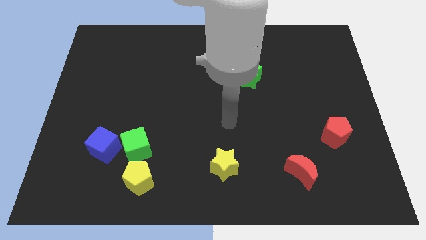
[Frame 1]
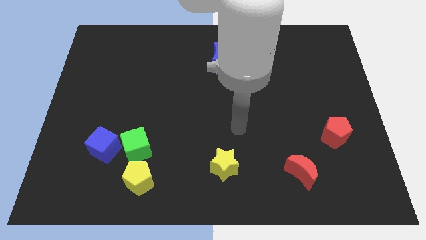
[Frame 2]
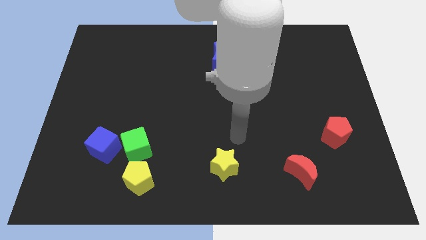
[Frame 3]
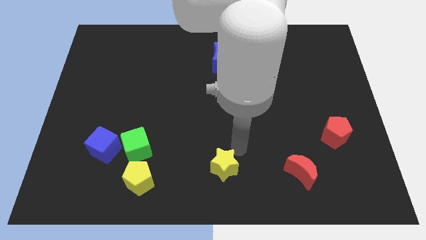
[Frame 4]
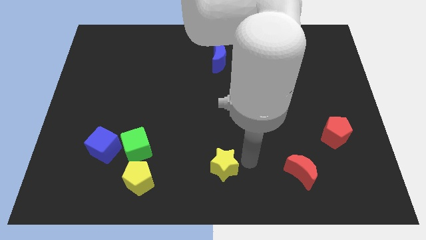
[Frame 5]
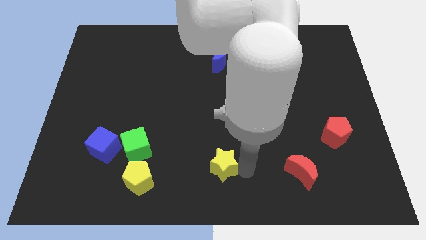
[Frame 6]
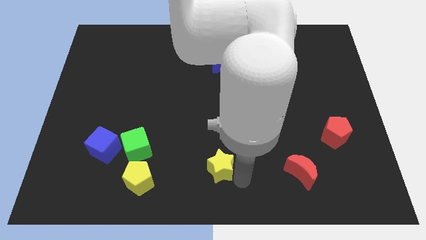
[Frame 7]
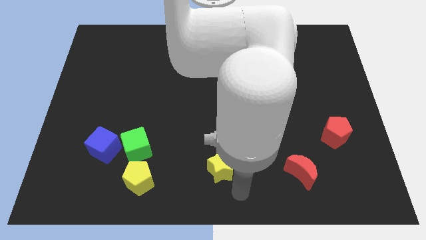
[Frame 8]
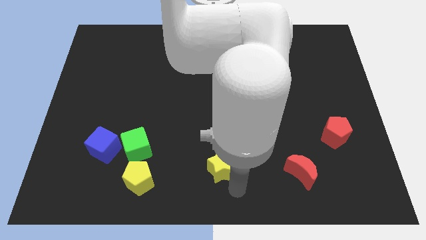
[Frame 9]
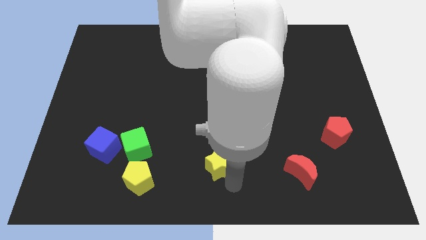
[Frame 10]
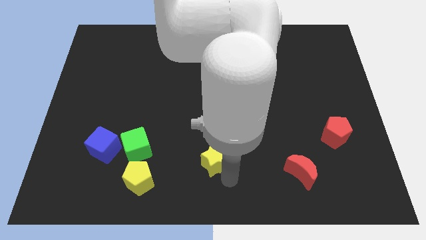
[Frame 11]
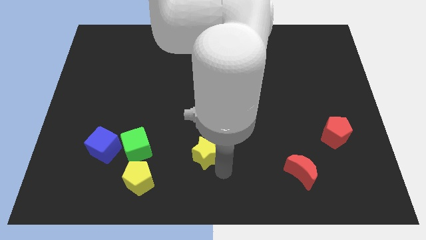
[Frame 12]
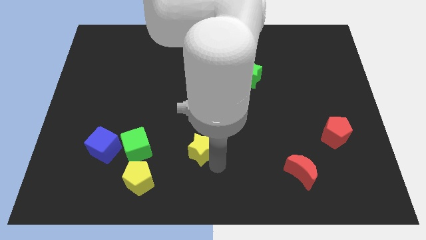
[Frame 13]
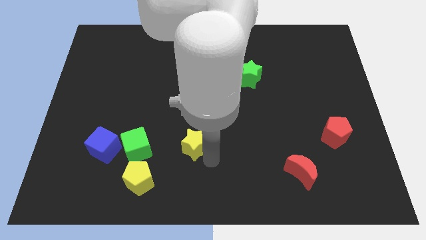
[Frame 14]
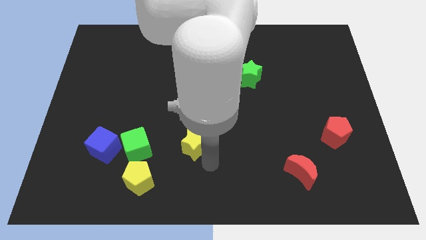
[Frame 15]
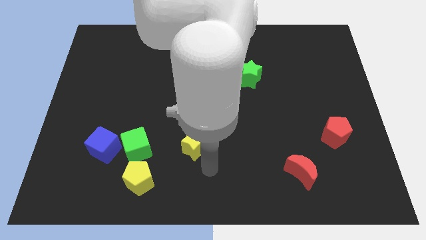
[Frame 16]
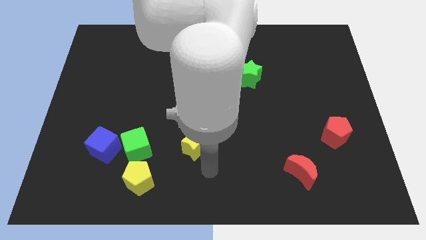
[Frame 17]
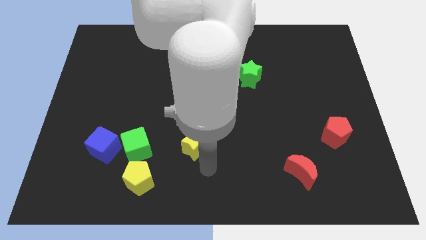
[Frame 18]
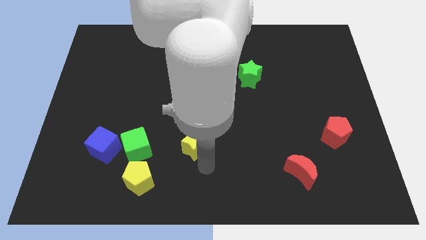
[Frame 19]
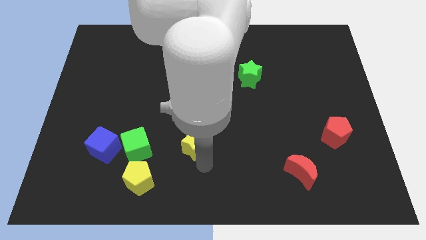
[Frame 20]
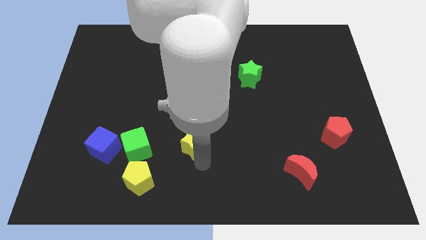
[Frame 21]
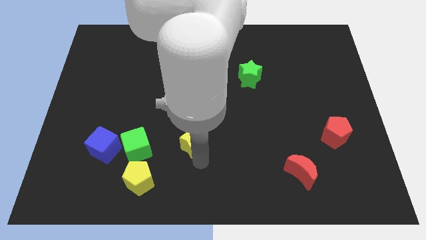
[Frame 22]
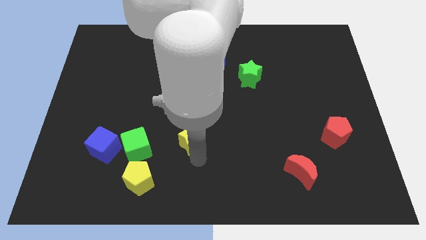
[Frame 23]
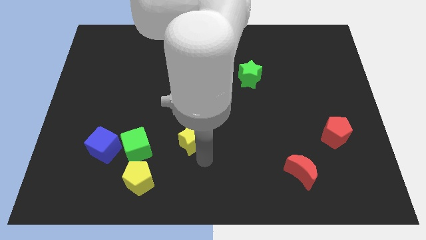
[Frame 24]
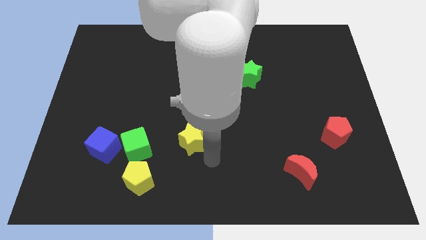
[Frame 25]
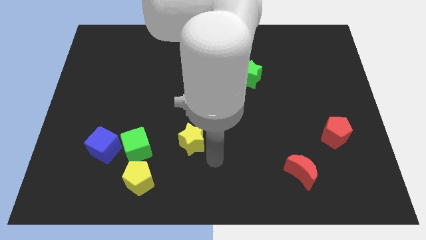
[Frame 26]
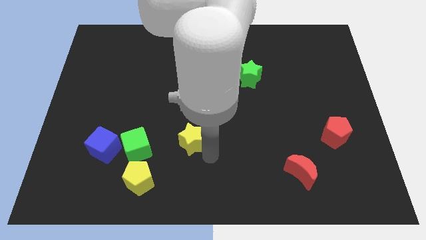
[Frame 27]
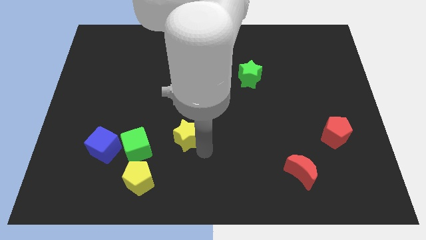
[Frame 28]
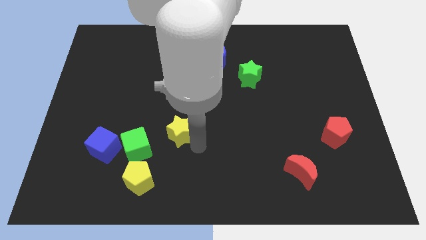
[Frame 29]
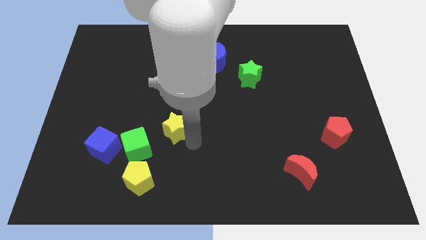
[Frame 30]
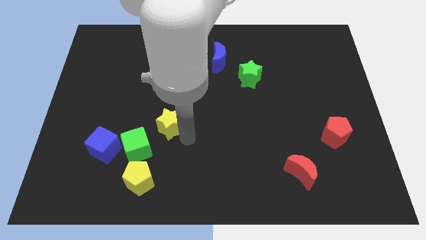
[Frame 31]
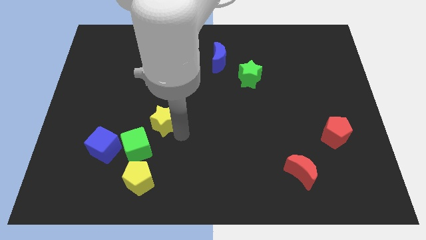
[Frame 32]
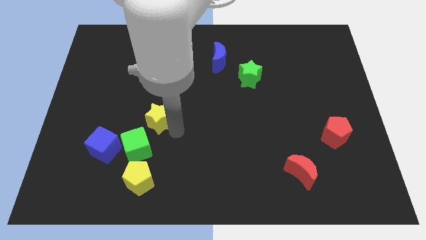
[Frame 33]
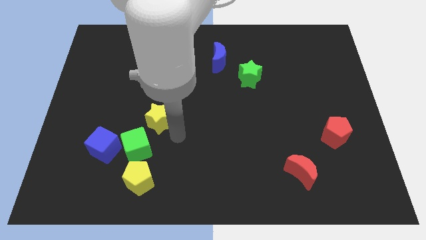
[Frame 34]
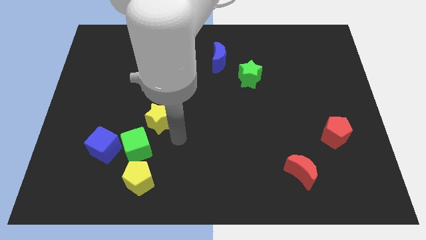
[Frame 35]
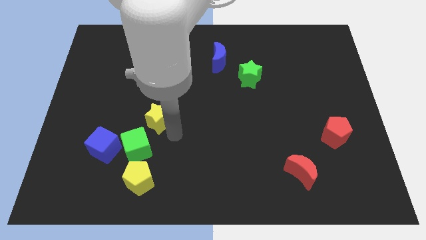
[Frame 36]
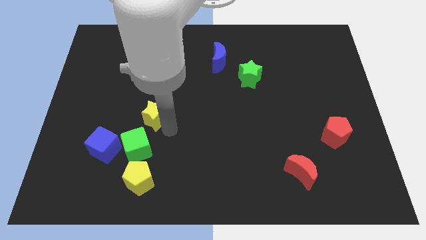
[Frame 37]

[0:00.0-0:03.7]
slide the yellow star diagonally up and to the left

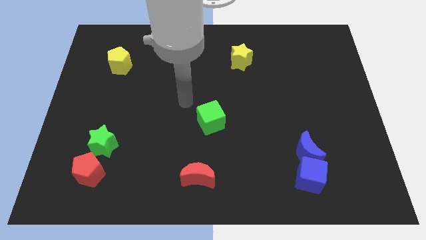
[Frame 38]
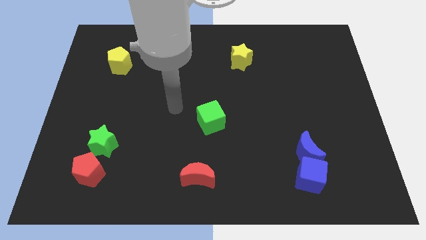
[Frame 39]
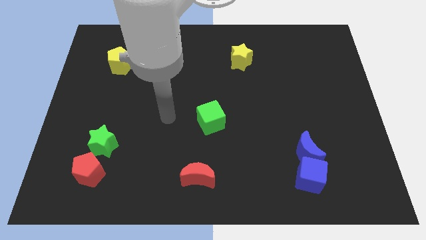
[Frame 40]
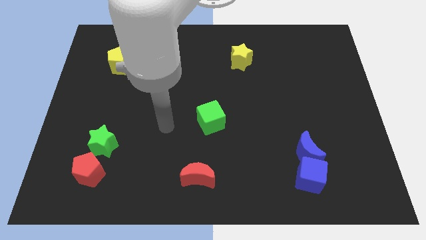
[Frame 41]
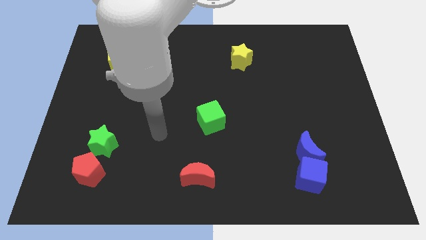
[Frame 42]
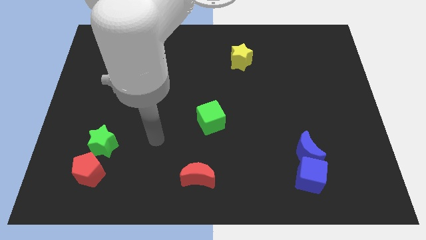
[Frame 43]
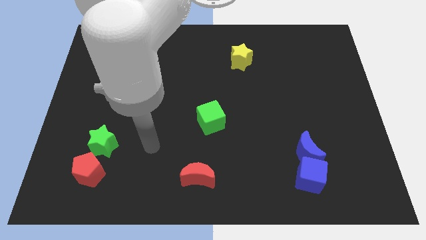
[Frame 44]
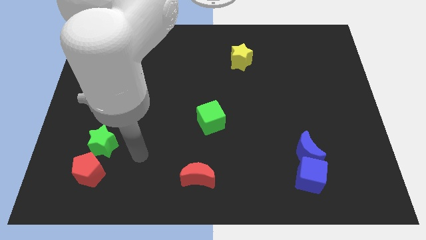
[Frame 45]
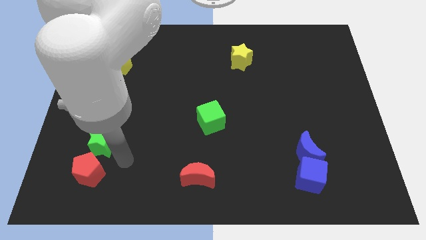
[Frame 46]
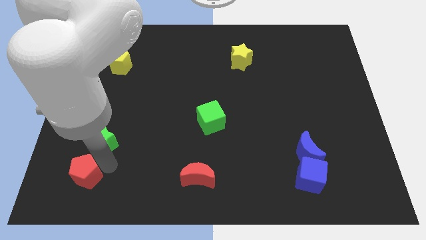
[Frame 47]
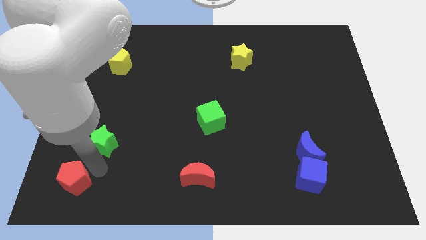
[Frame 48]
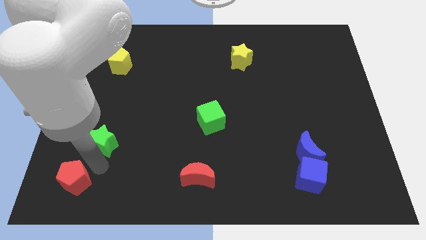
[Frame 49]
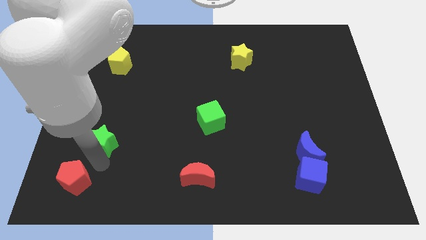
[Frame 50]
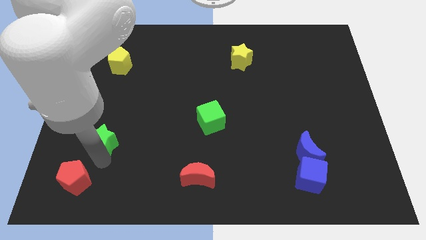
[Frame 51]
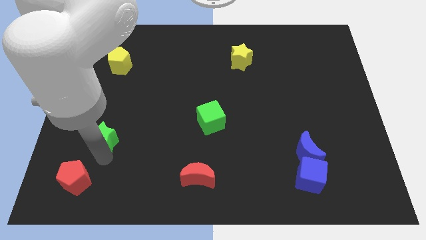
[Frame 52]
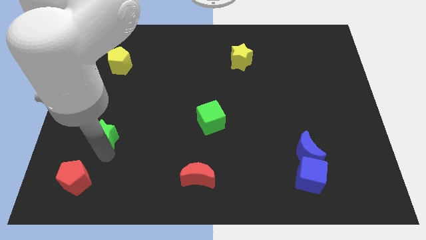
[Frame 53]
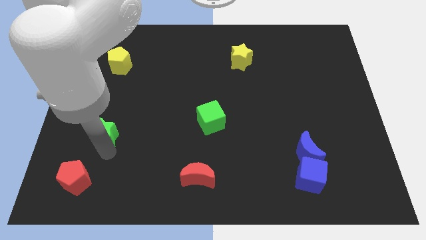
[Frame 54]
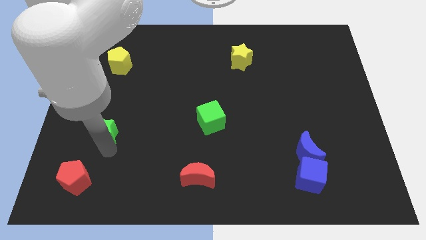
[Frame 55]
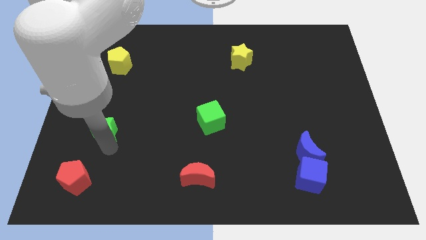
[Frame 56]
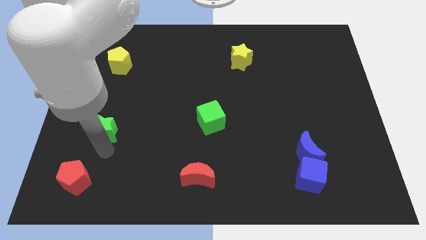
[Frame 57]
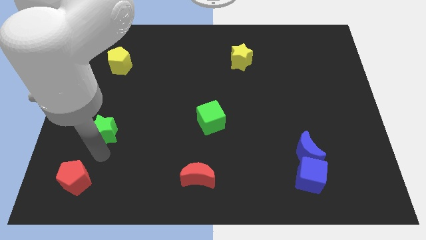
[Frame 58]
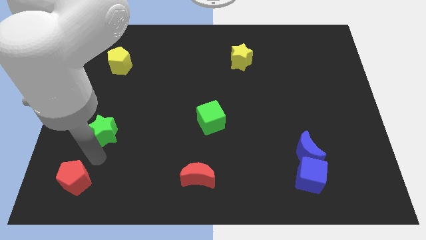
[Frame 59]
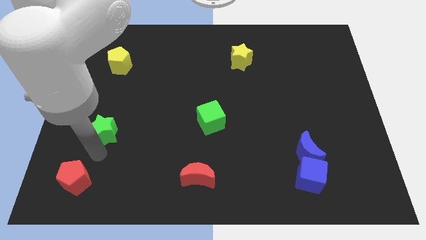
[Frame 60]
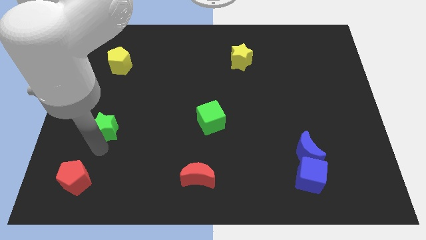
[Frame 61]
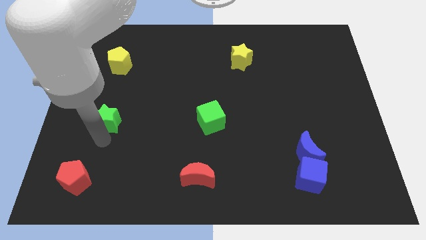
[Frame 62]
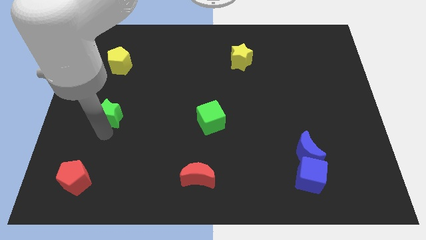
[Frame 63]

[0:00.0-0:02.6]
slide the green star upwards somewhat

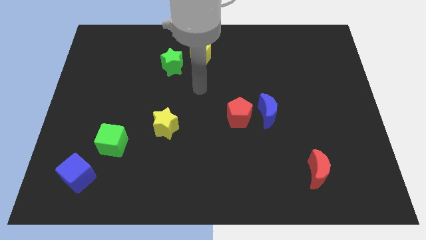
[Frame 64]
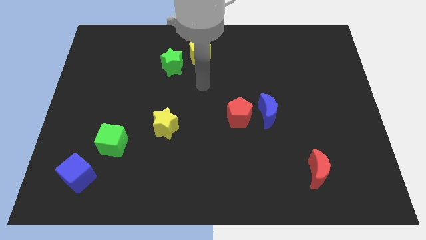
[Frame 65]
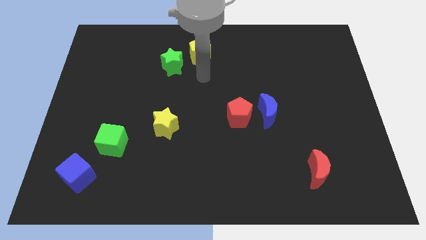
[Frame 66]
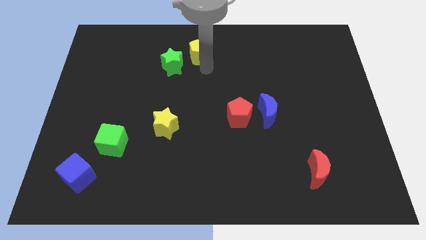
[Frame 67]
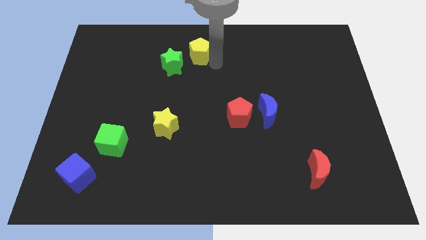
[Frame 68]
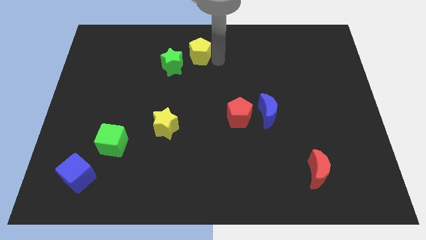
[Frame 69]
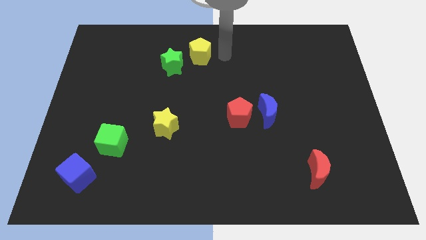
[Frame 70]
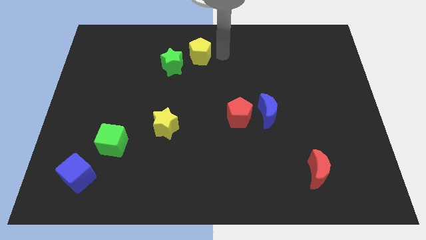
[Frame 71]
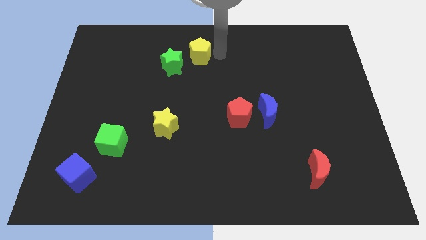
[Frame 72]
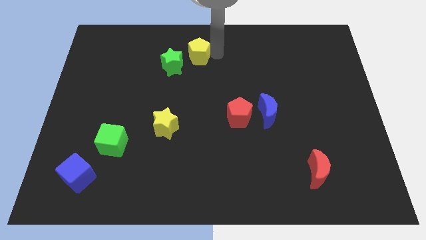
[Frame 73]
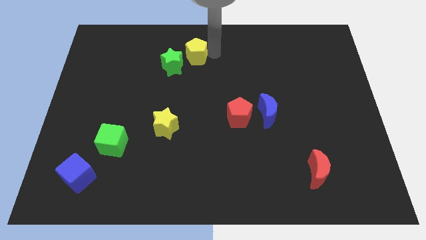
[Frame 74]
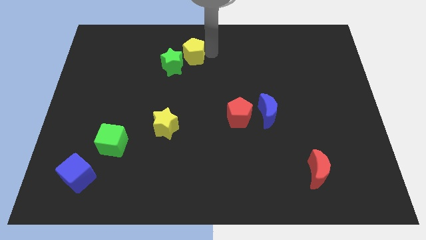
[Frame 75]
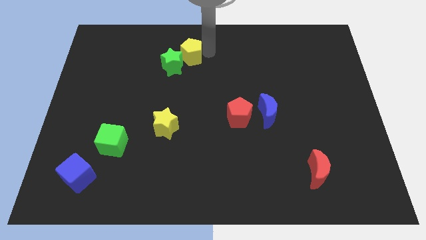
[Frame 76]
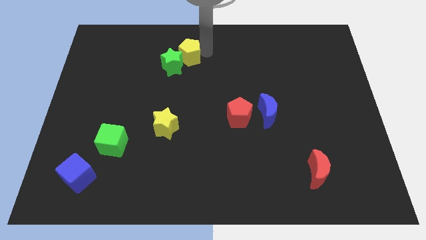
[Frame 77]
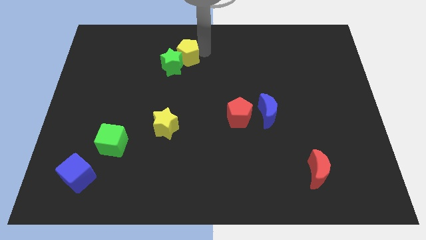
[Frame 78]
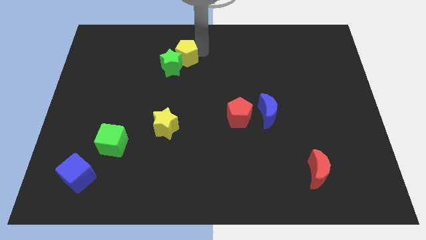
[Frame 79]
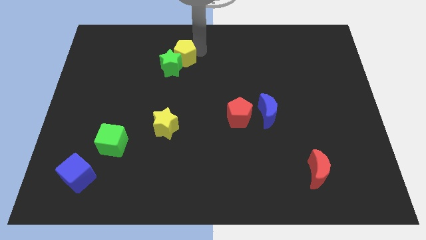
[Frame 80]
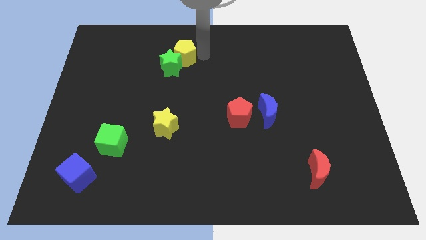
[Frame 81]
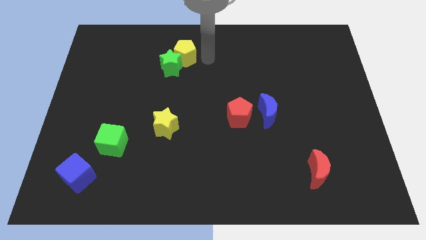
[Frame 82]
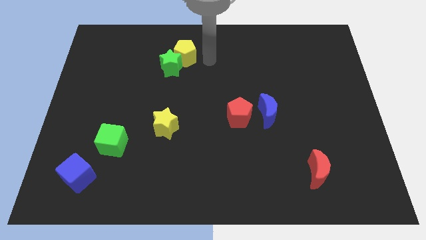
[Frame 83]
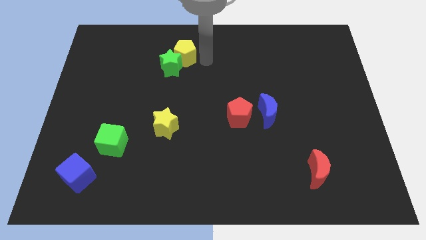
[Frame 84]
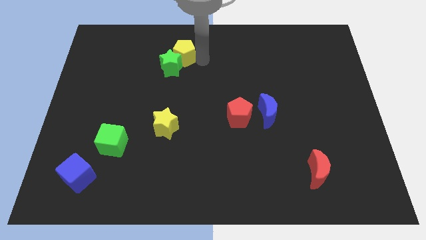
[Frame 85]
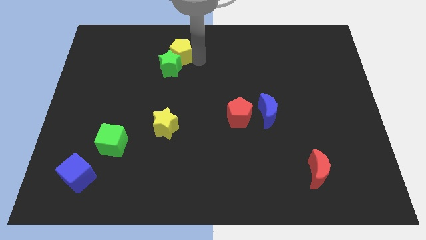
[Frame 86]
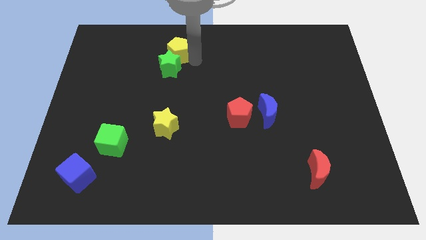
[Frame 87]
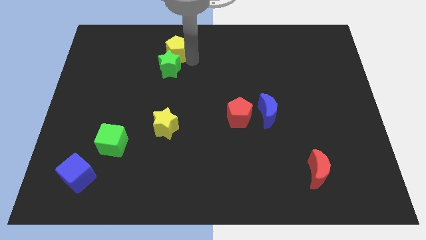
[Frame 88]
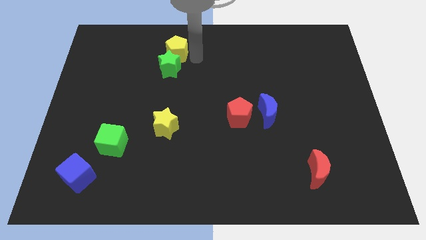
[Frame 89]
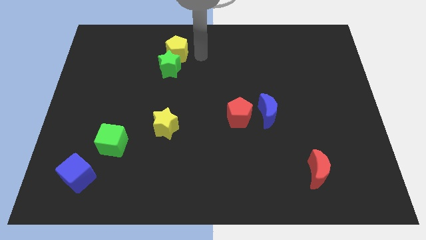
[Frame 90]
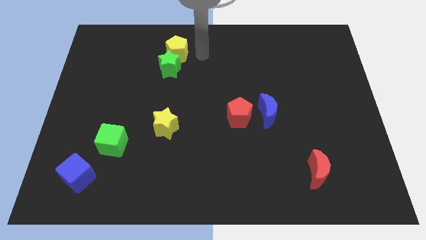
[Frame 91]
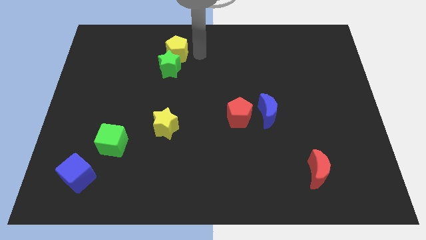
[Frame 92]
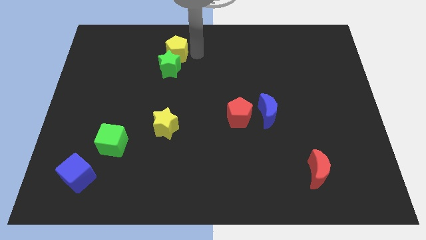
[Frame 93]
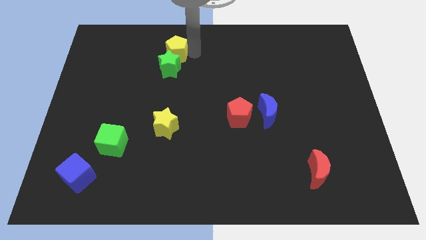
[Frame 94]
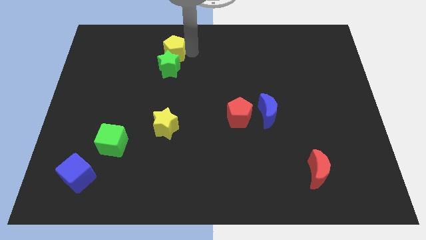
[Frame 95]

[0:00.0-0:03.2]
push the yellow pentagon to the left a little
